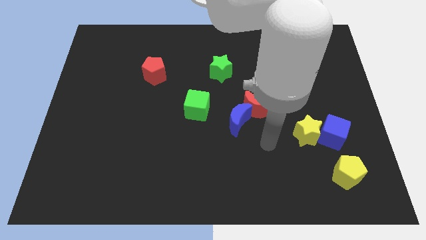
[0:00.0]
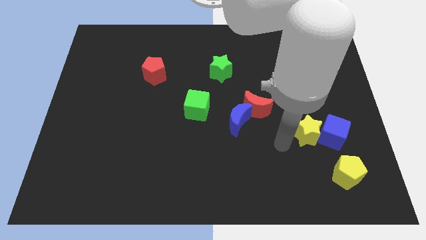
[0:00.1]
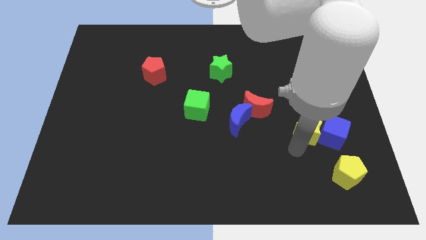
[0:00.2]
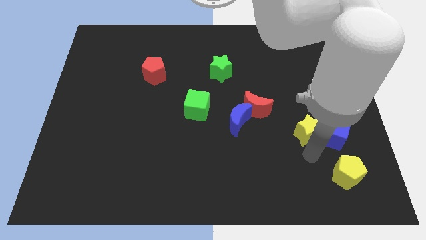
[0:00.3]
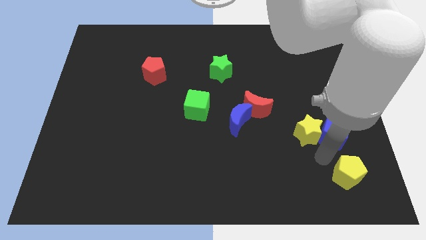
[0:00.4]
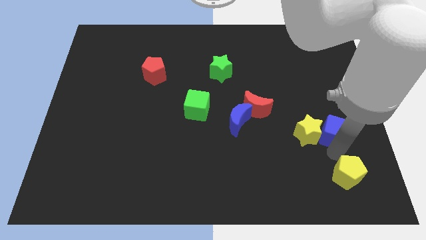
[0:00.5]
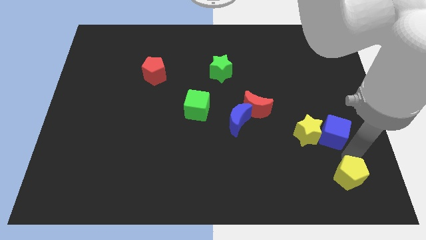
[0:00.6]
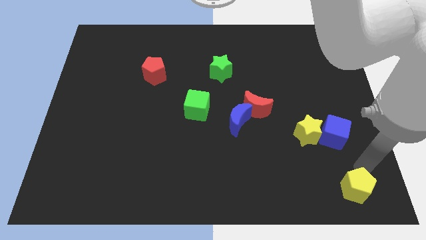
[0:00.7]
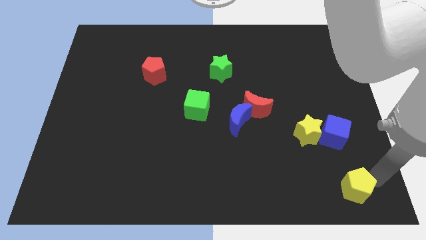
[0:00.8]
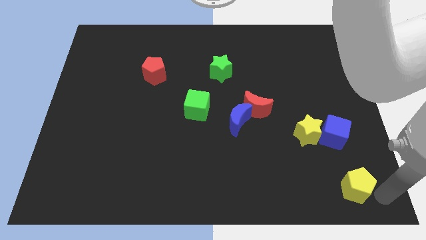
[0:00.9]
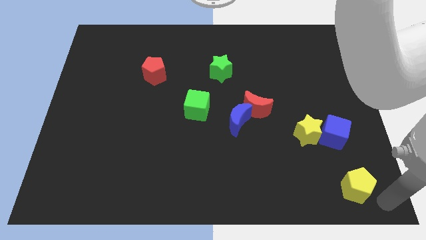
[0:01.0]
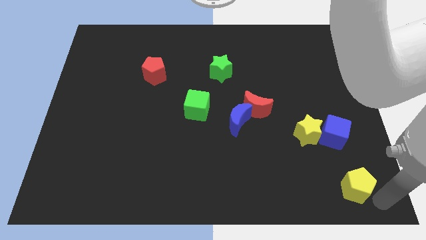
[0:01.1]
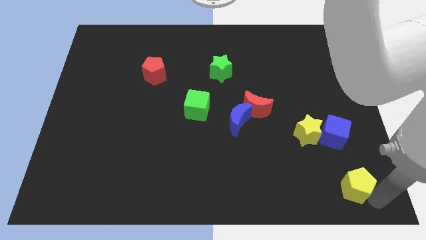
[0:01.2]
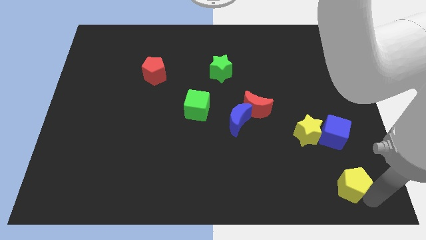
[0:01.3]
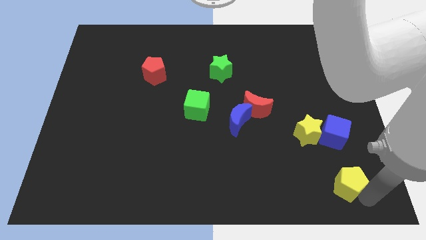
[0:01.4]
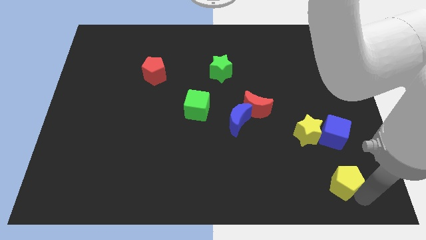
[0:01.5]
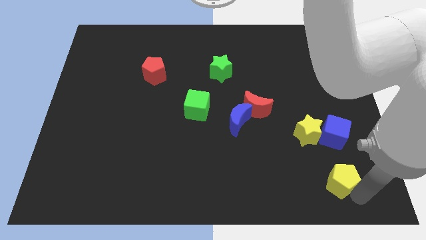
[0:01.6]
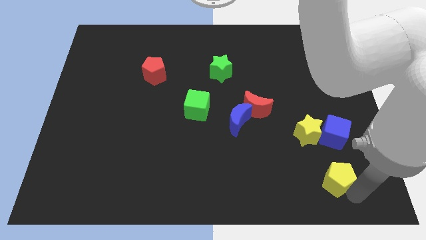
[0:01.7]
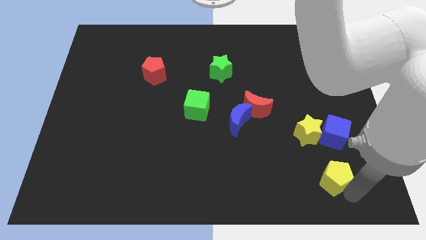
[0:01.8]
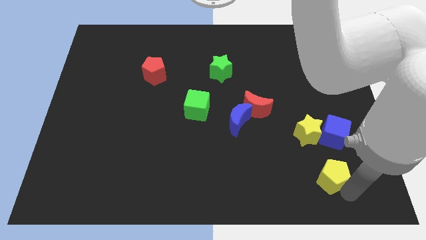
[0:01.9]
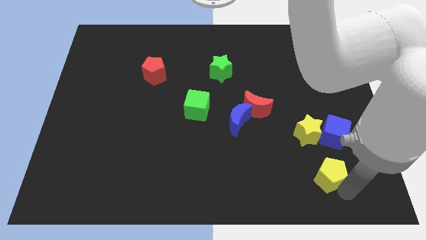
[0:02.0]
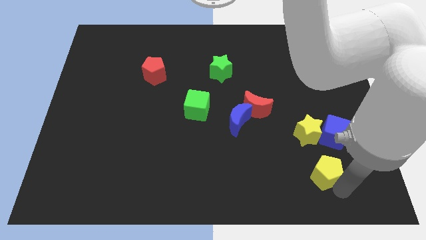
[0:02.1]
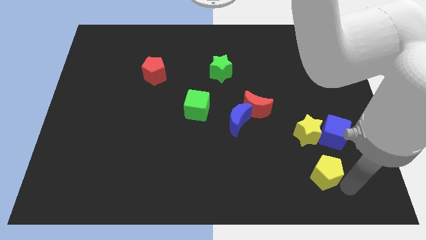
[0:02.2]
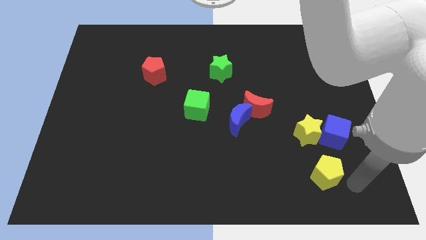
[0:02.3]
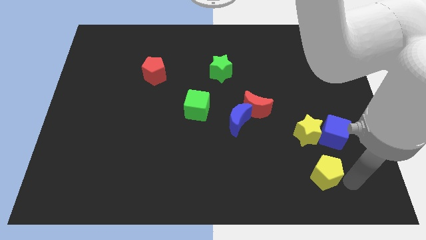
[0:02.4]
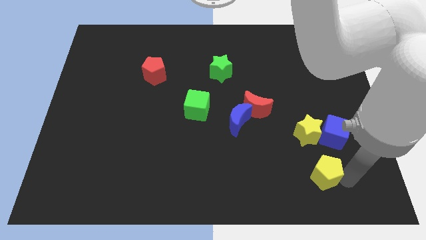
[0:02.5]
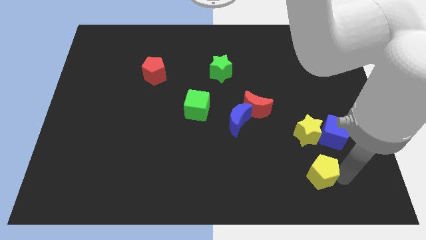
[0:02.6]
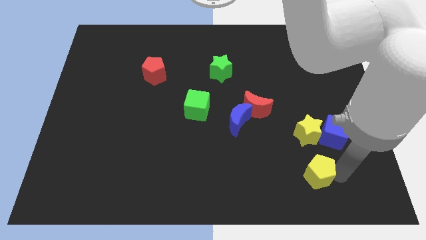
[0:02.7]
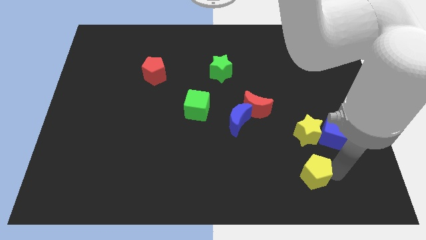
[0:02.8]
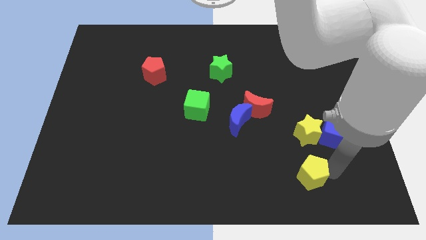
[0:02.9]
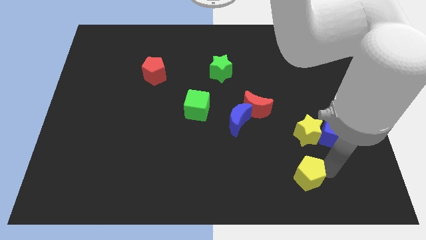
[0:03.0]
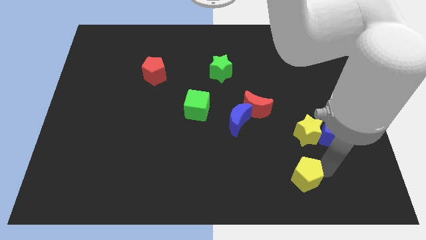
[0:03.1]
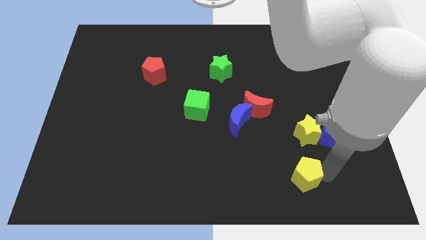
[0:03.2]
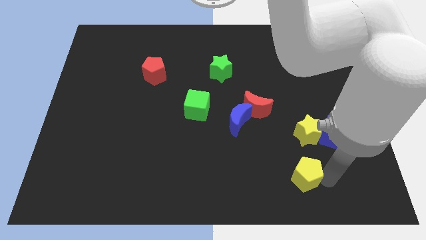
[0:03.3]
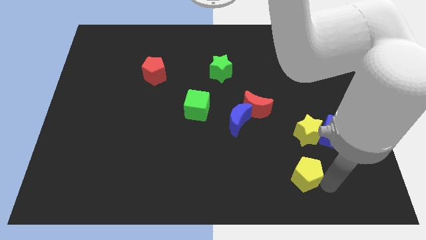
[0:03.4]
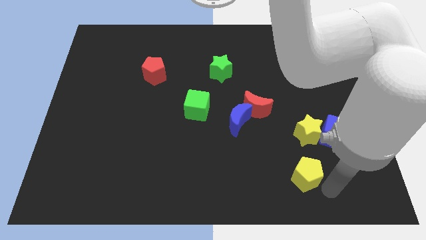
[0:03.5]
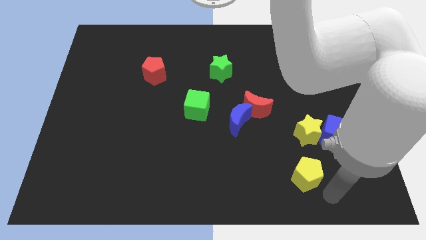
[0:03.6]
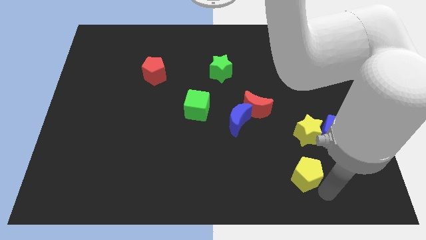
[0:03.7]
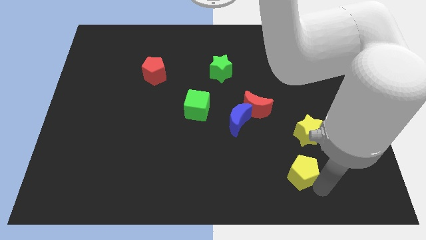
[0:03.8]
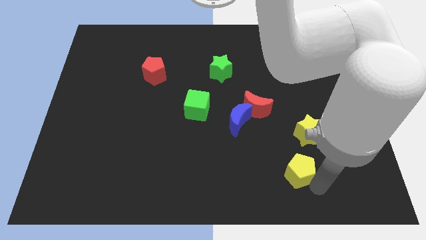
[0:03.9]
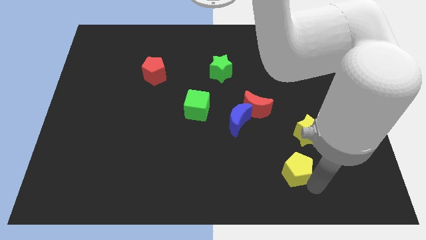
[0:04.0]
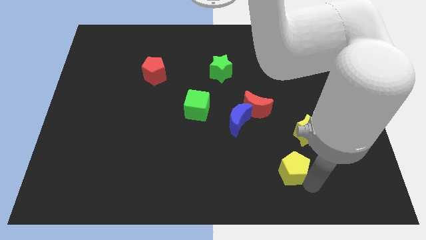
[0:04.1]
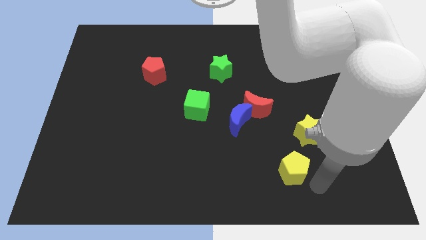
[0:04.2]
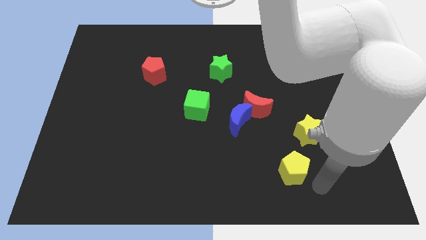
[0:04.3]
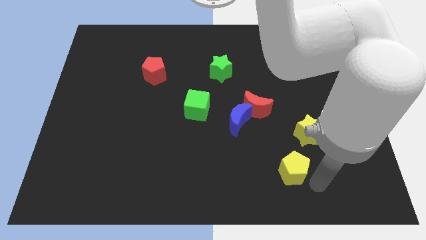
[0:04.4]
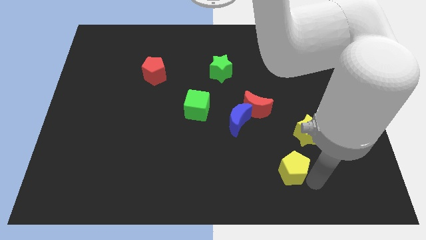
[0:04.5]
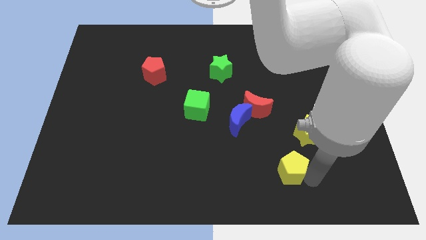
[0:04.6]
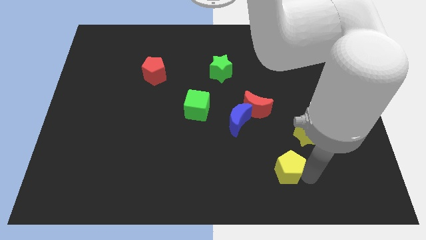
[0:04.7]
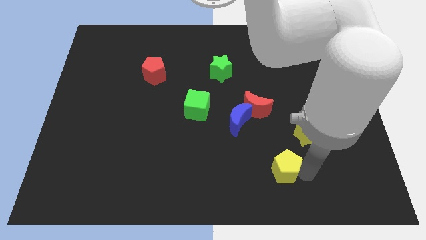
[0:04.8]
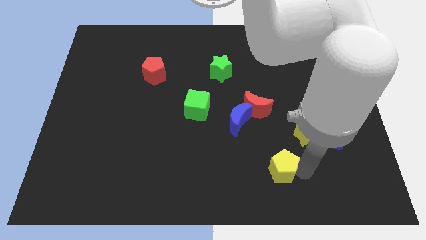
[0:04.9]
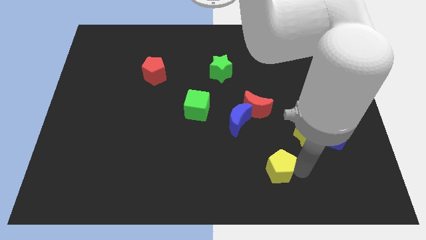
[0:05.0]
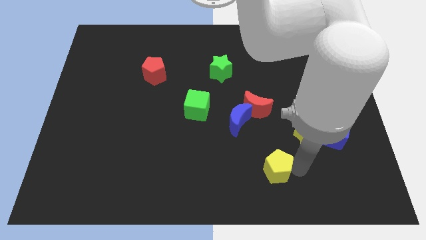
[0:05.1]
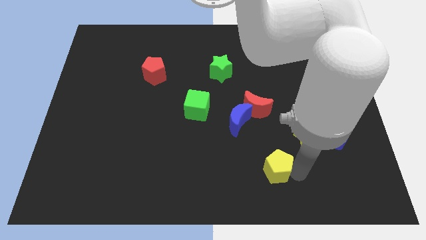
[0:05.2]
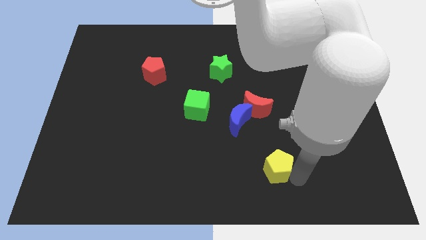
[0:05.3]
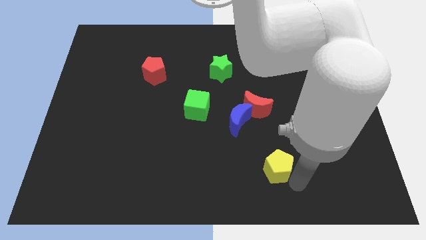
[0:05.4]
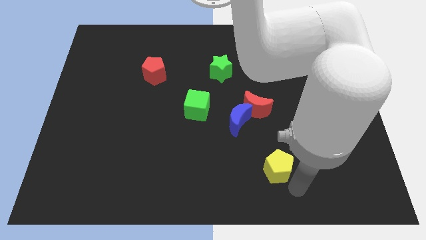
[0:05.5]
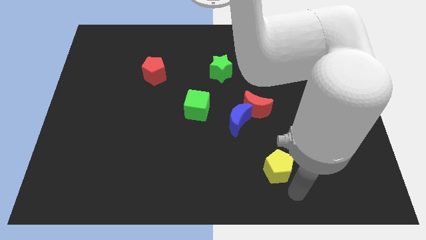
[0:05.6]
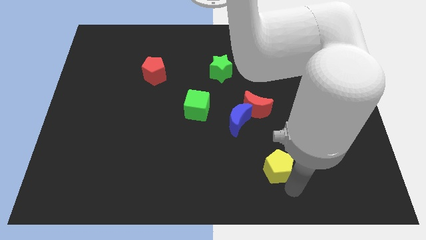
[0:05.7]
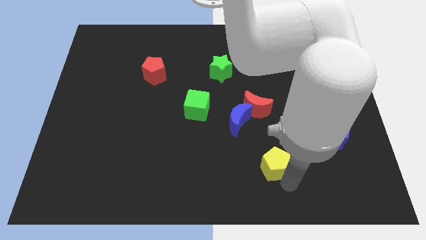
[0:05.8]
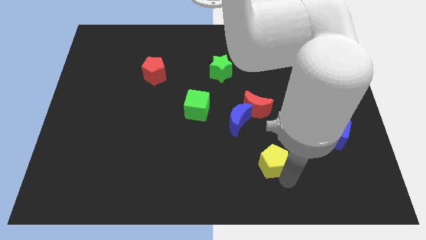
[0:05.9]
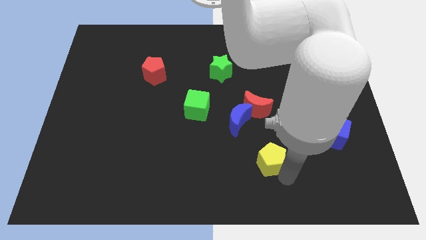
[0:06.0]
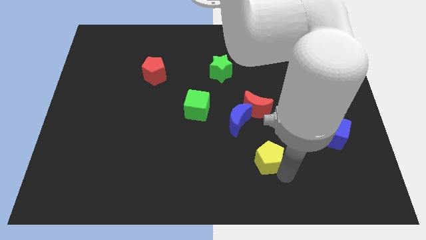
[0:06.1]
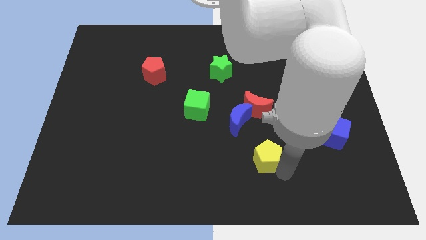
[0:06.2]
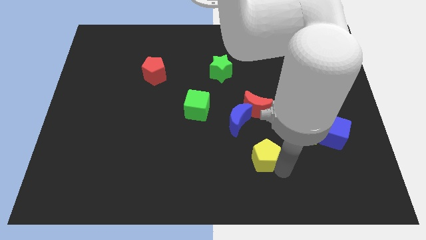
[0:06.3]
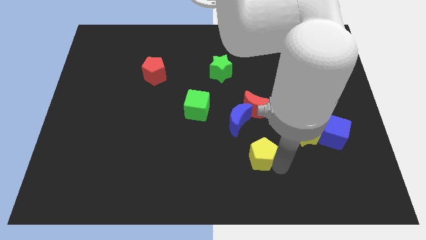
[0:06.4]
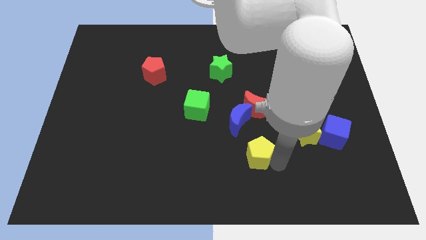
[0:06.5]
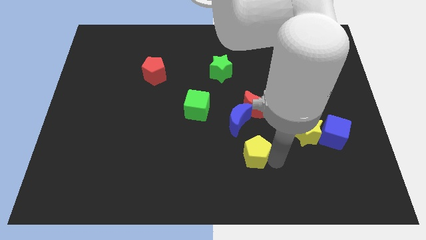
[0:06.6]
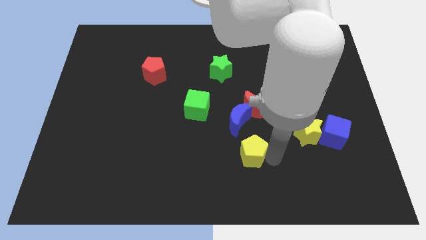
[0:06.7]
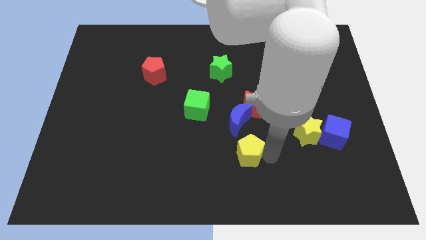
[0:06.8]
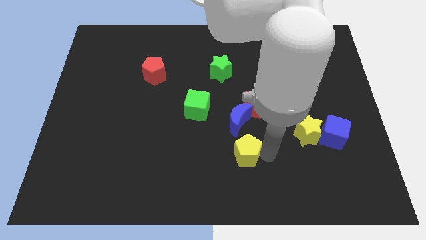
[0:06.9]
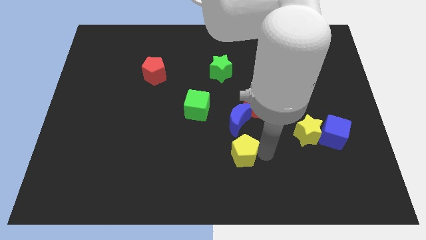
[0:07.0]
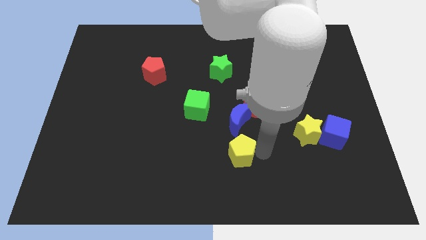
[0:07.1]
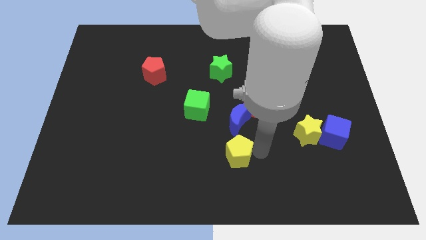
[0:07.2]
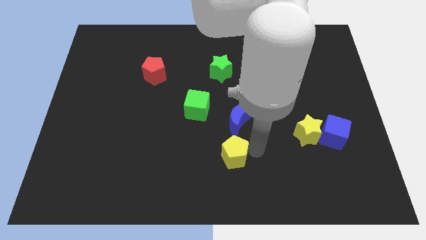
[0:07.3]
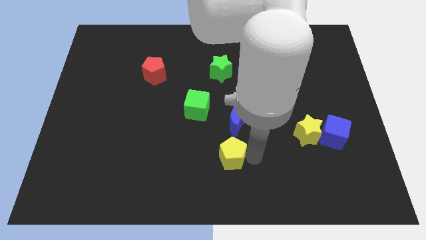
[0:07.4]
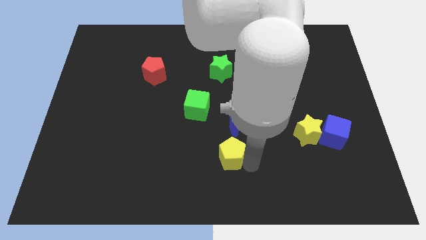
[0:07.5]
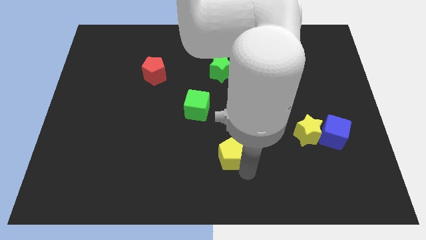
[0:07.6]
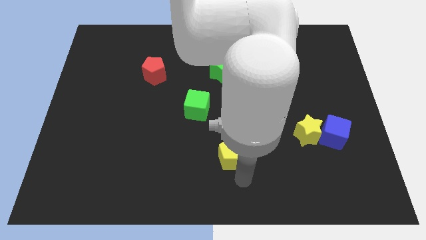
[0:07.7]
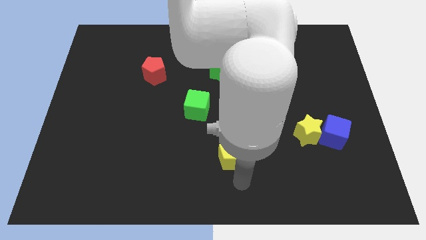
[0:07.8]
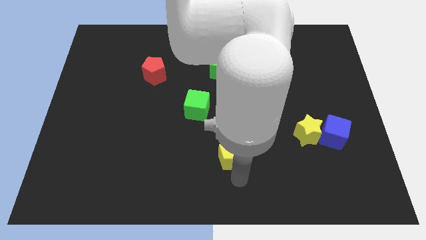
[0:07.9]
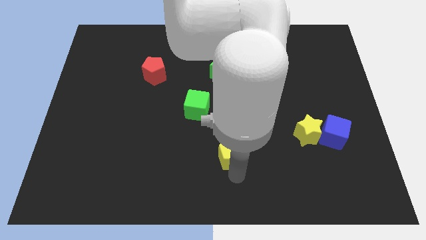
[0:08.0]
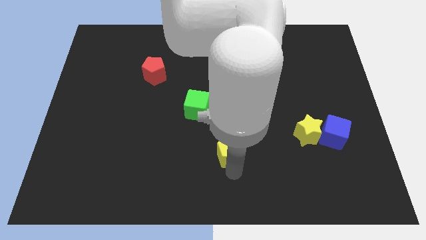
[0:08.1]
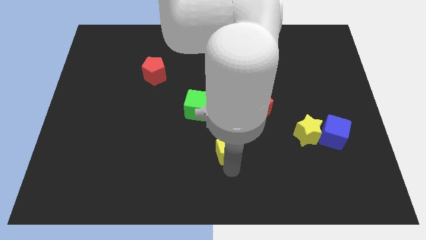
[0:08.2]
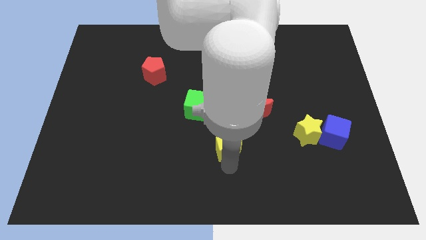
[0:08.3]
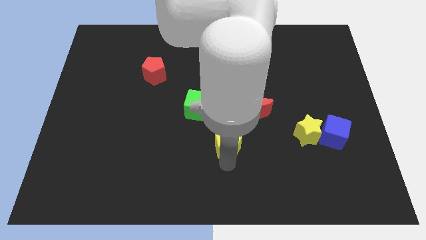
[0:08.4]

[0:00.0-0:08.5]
slide the yellow pentagon to the bottom right side of the green cube
